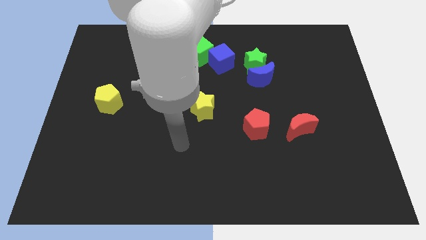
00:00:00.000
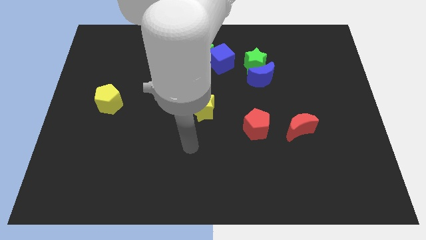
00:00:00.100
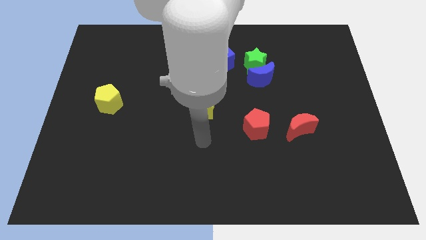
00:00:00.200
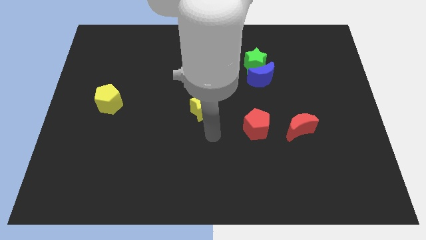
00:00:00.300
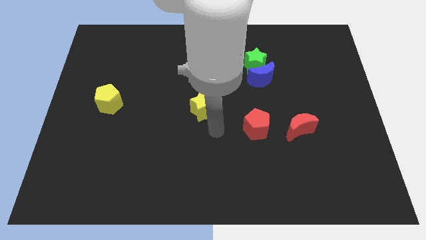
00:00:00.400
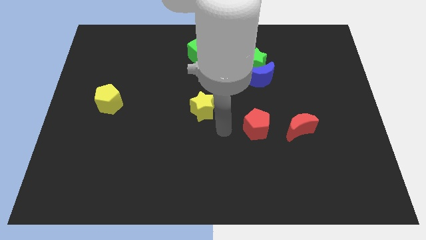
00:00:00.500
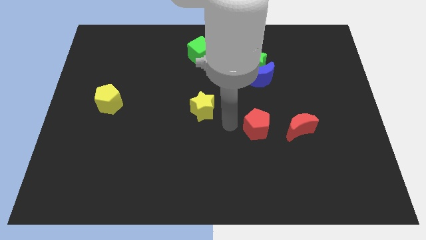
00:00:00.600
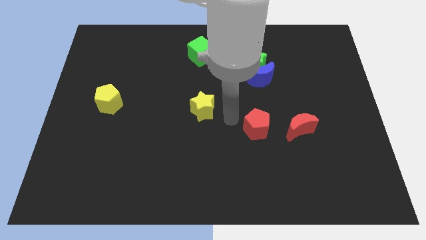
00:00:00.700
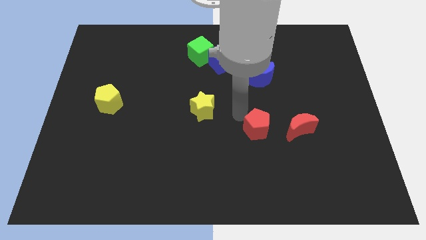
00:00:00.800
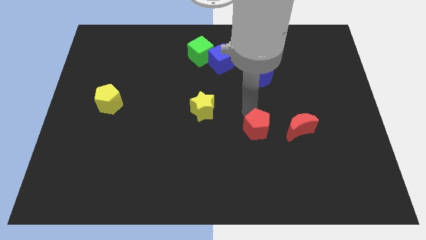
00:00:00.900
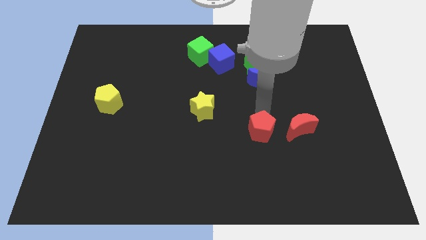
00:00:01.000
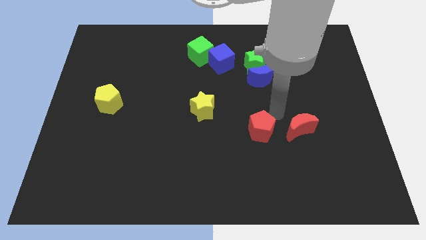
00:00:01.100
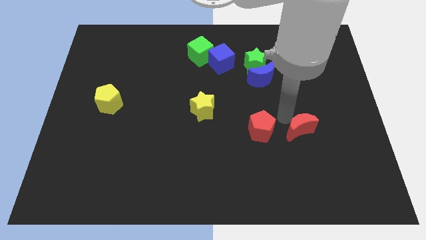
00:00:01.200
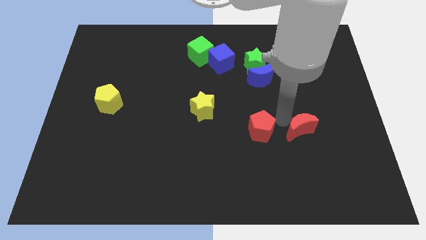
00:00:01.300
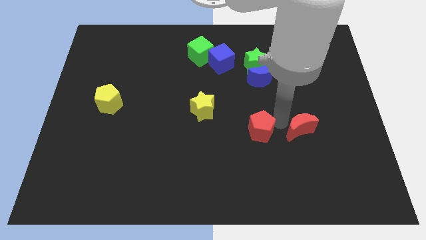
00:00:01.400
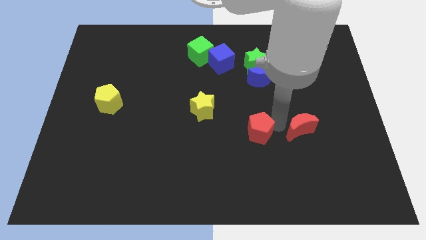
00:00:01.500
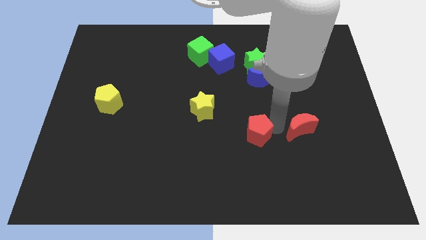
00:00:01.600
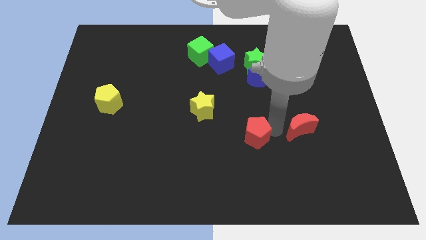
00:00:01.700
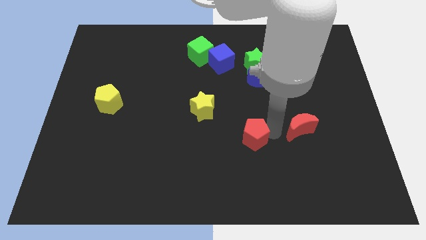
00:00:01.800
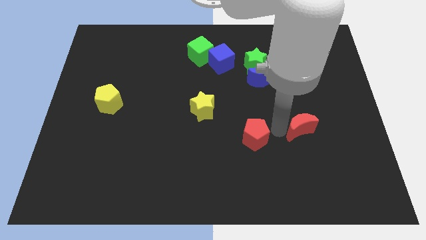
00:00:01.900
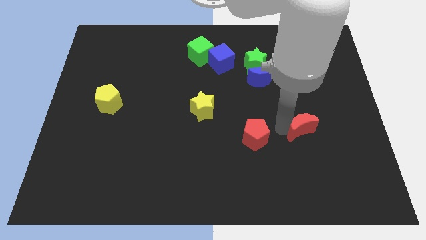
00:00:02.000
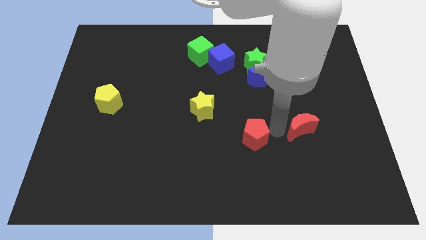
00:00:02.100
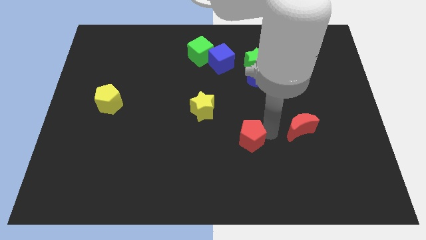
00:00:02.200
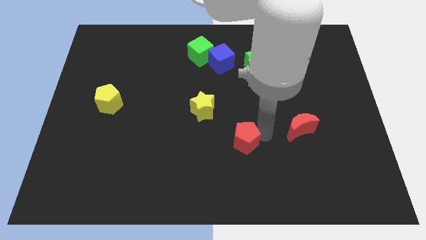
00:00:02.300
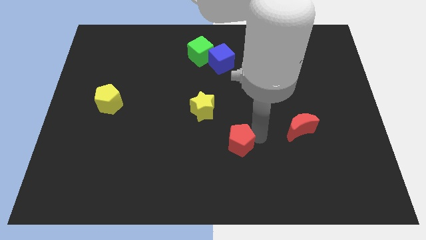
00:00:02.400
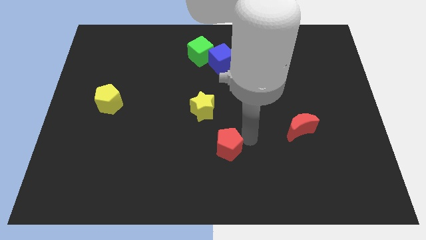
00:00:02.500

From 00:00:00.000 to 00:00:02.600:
slightly move the red pentagon diagonally downwards and to the left

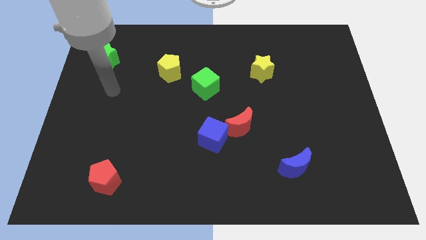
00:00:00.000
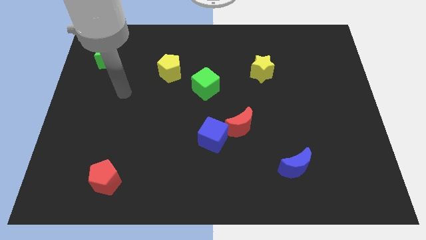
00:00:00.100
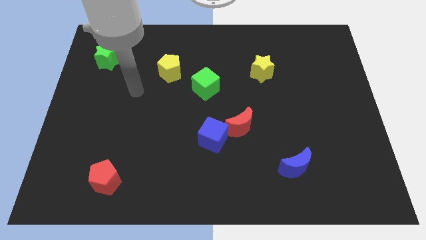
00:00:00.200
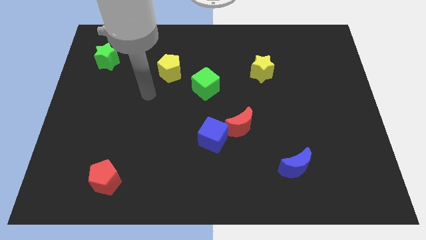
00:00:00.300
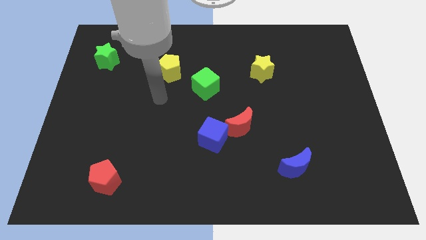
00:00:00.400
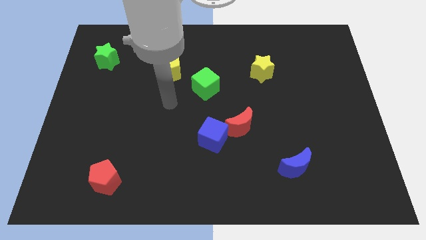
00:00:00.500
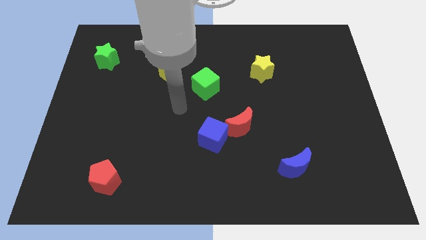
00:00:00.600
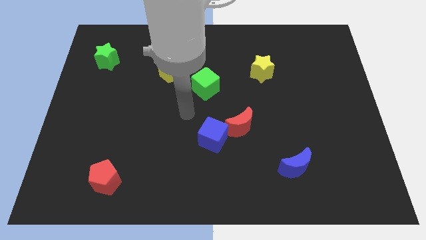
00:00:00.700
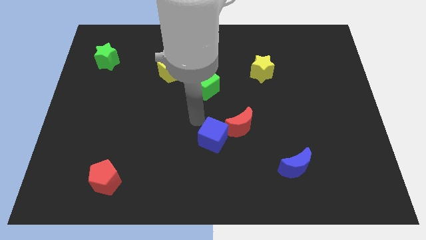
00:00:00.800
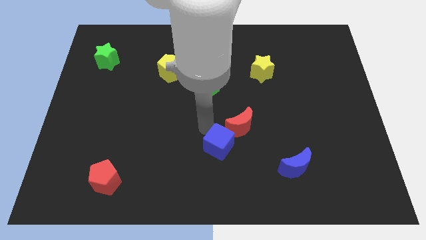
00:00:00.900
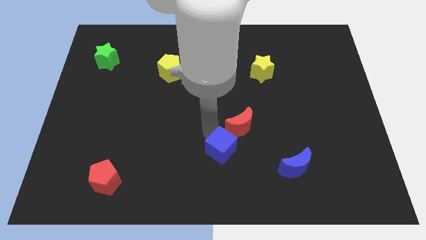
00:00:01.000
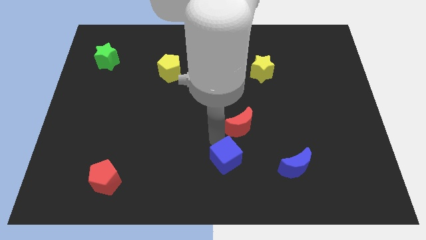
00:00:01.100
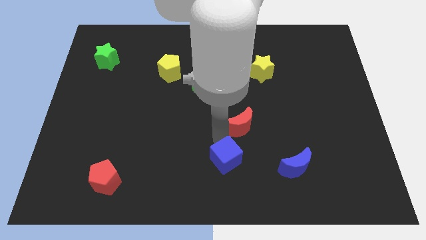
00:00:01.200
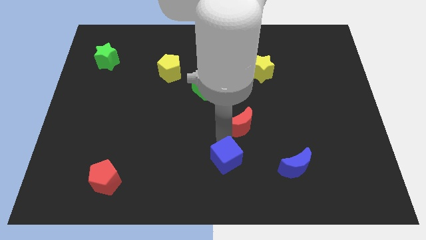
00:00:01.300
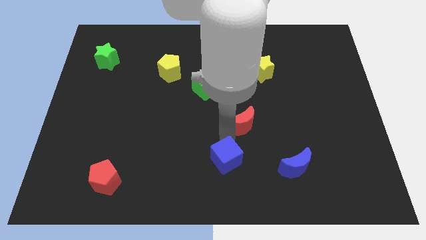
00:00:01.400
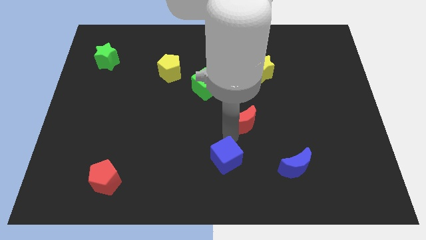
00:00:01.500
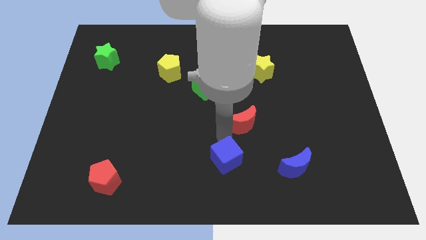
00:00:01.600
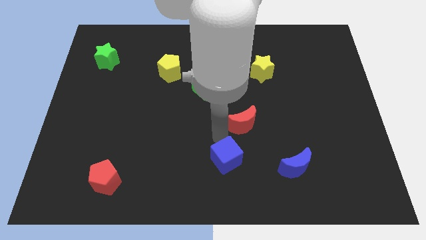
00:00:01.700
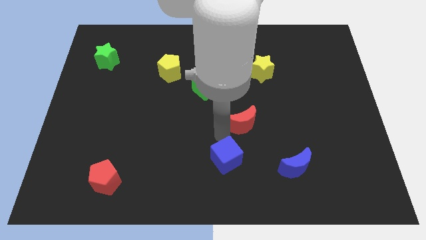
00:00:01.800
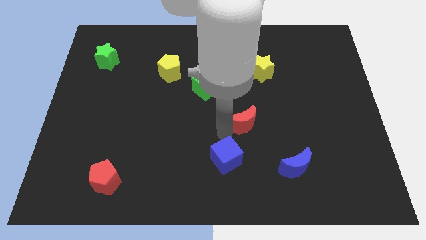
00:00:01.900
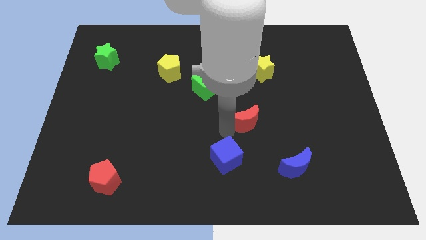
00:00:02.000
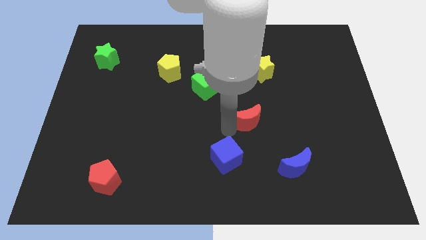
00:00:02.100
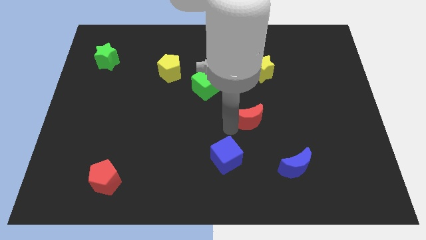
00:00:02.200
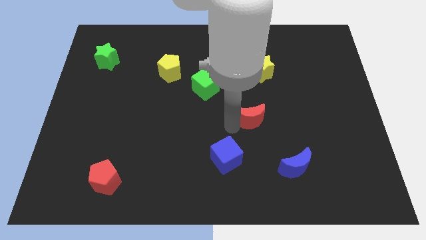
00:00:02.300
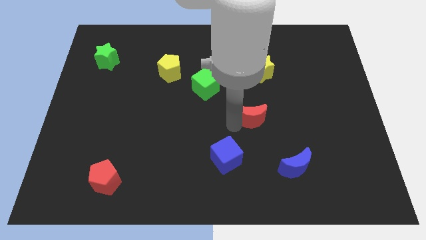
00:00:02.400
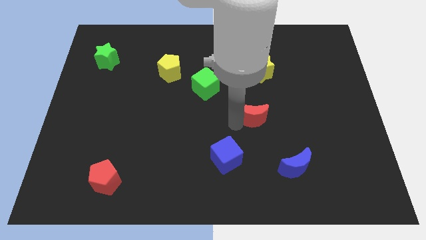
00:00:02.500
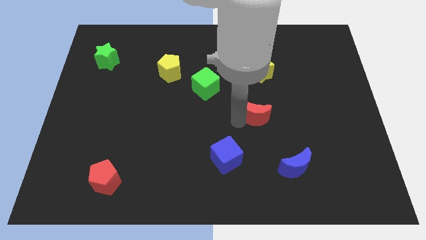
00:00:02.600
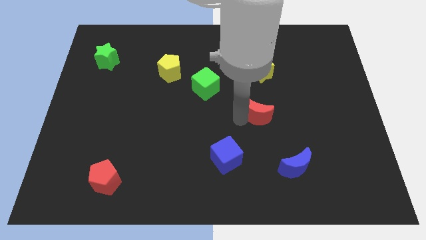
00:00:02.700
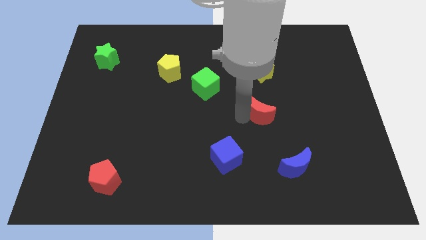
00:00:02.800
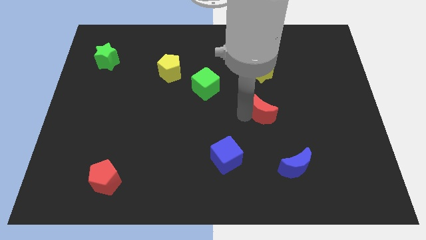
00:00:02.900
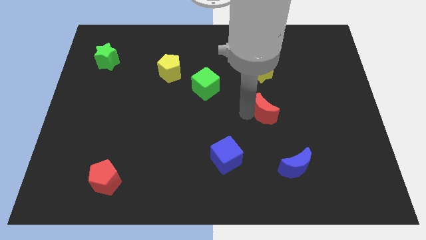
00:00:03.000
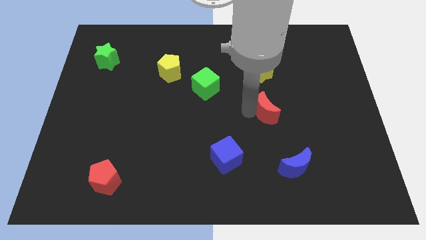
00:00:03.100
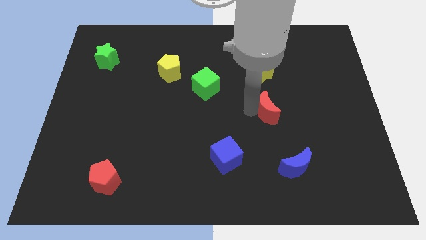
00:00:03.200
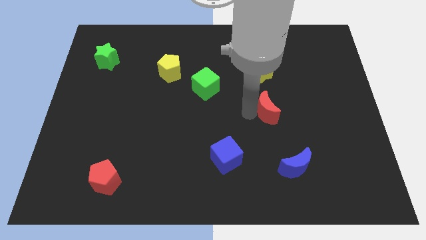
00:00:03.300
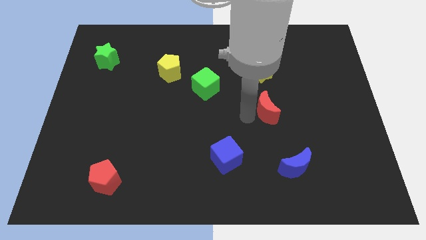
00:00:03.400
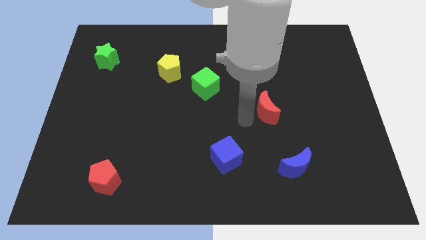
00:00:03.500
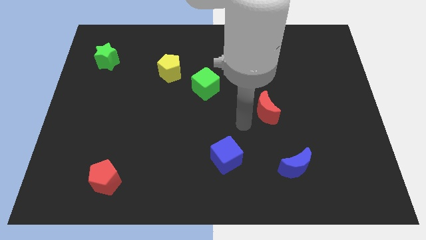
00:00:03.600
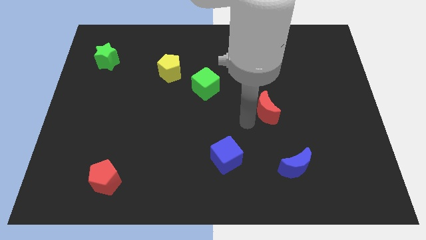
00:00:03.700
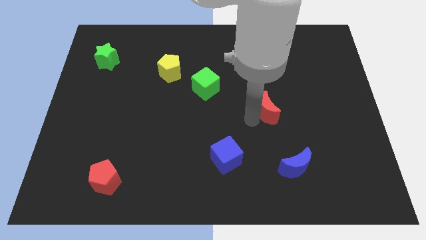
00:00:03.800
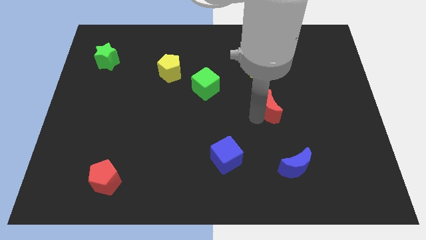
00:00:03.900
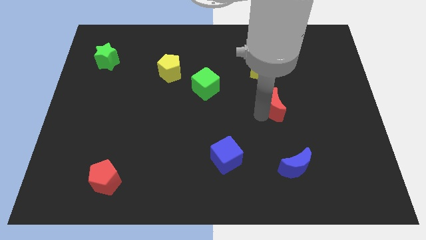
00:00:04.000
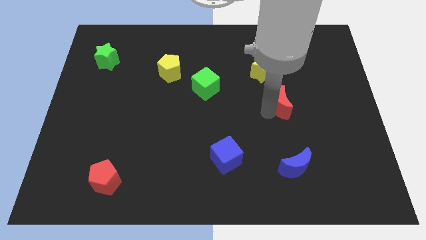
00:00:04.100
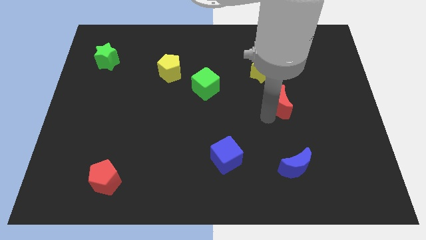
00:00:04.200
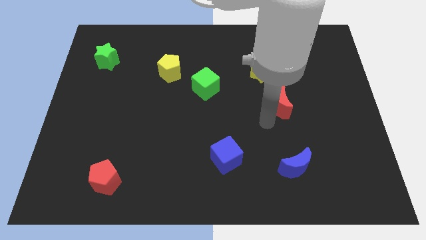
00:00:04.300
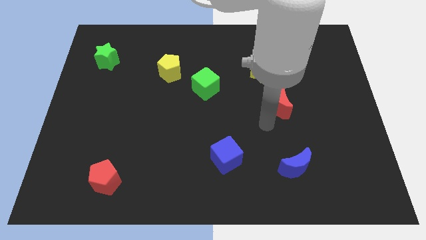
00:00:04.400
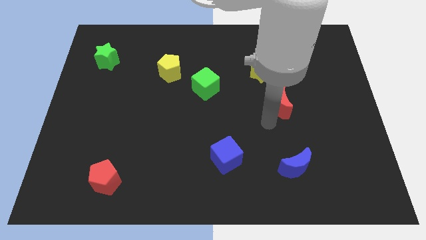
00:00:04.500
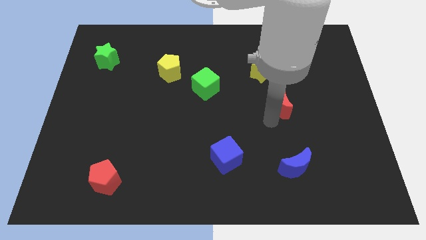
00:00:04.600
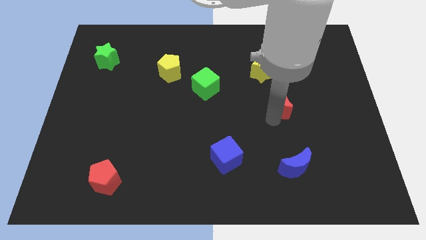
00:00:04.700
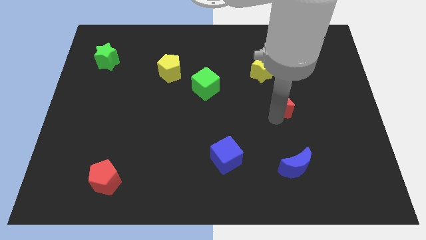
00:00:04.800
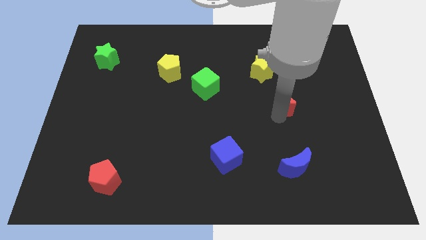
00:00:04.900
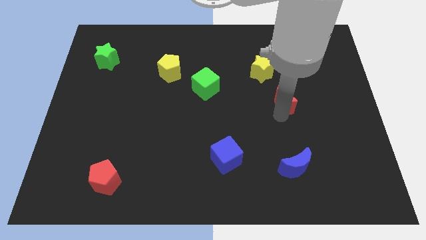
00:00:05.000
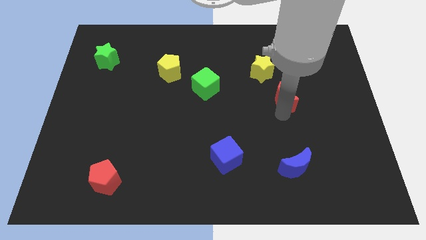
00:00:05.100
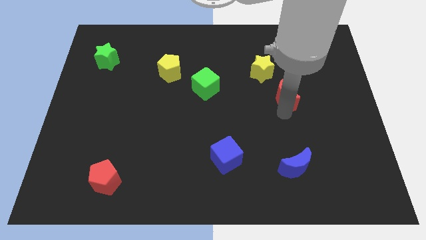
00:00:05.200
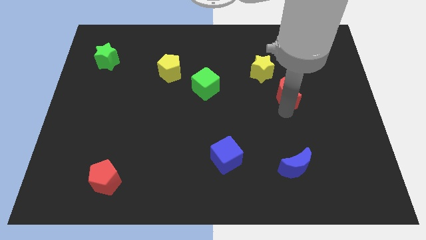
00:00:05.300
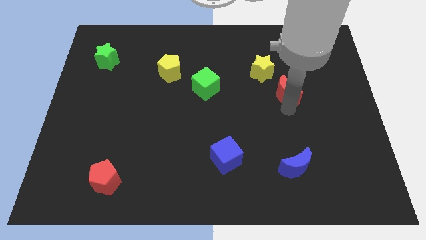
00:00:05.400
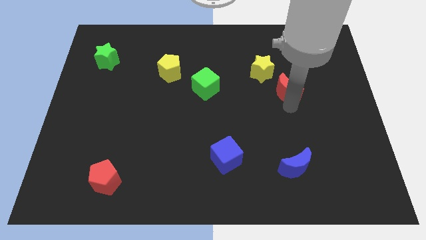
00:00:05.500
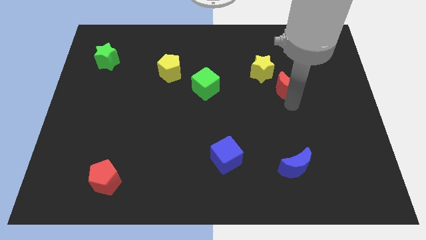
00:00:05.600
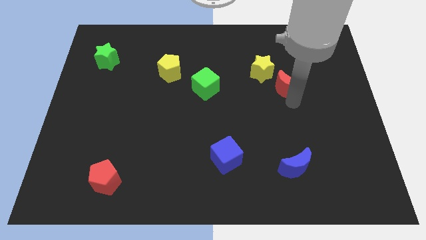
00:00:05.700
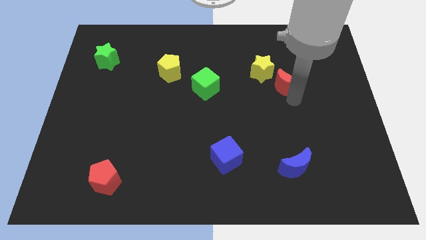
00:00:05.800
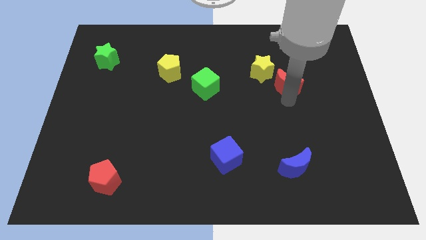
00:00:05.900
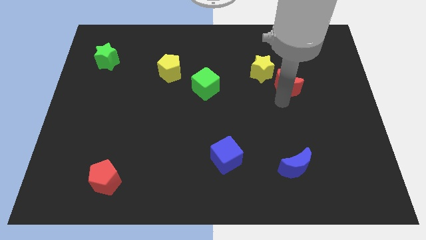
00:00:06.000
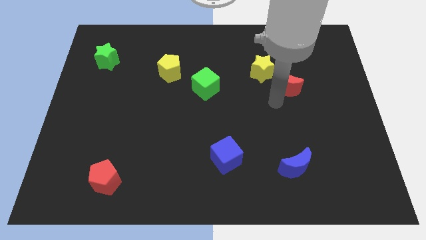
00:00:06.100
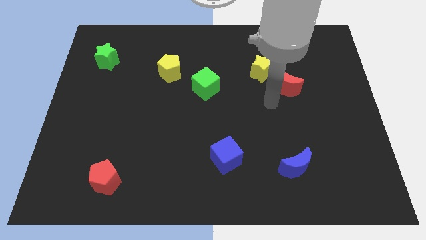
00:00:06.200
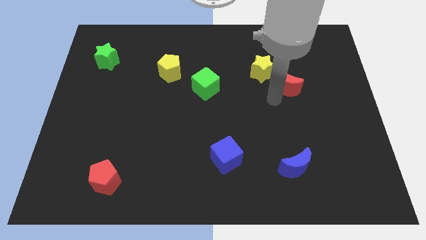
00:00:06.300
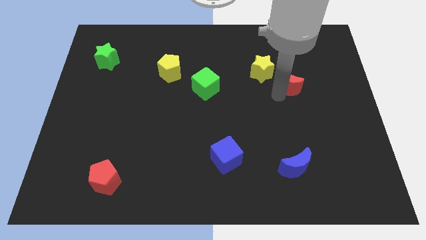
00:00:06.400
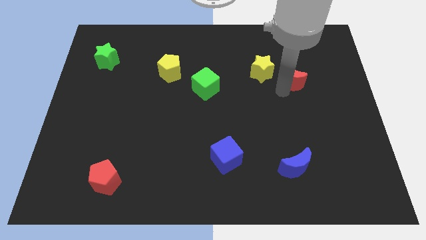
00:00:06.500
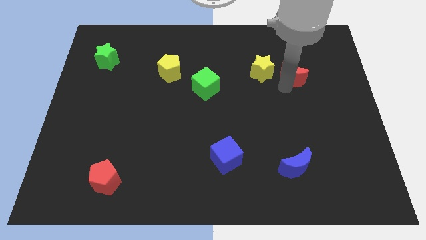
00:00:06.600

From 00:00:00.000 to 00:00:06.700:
slide the red moon diagonally upwards and right
